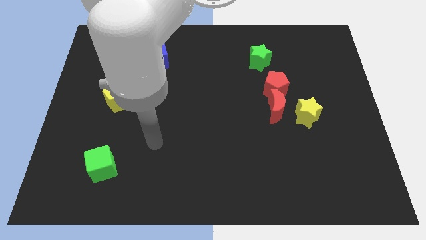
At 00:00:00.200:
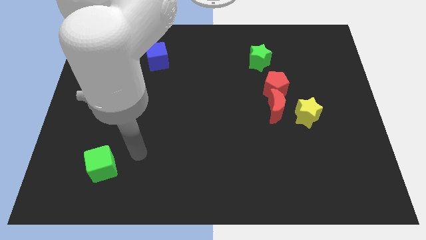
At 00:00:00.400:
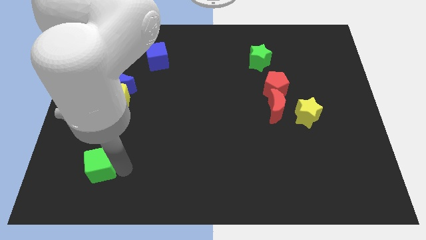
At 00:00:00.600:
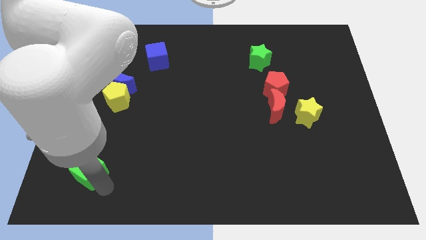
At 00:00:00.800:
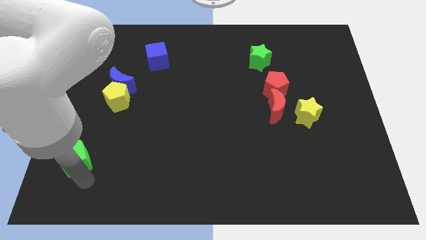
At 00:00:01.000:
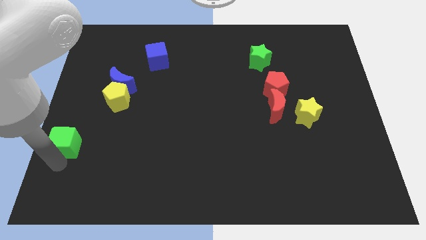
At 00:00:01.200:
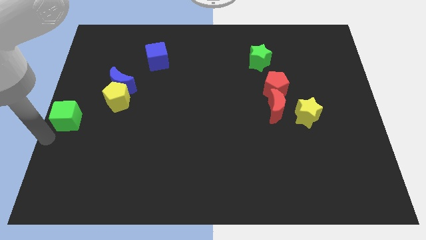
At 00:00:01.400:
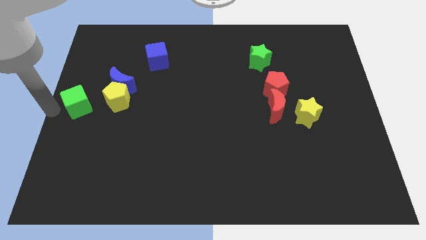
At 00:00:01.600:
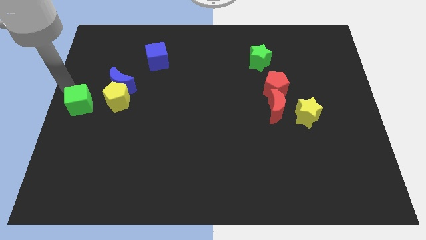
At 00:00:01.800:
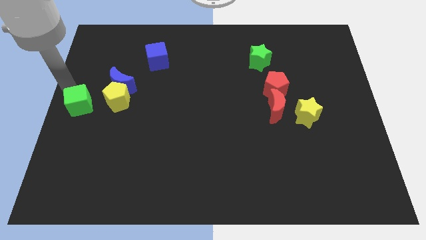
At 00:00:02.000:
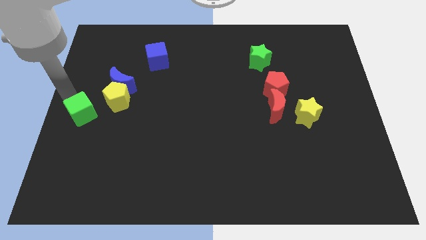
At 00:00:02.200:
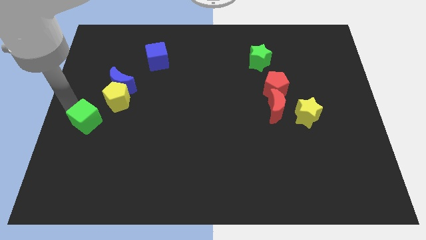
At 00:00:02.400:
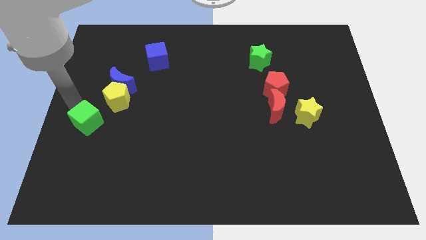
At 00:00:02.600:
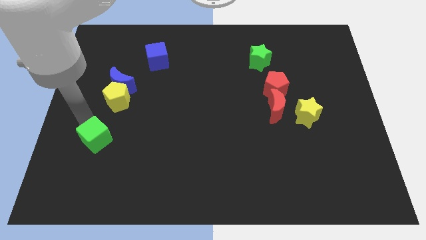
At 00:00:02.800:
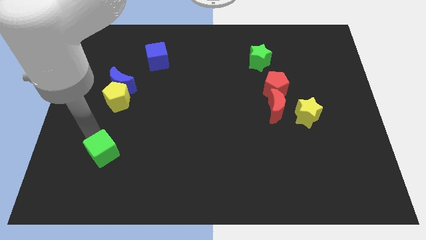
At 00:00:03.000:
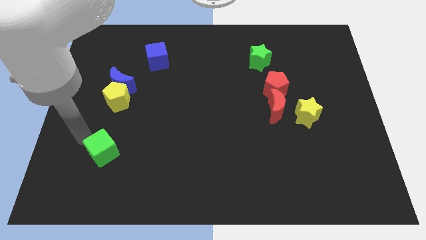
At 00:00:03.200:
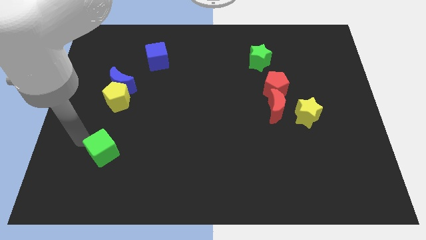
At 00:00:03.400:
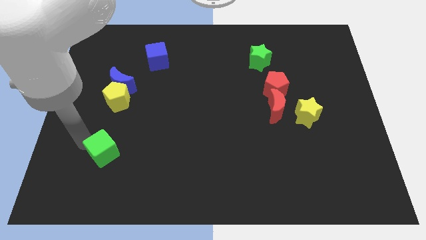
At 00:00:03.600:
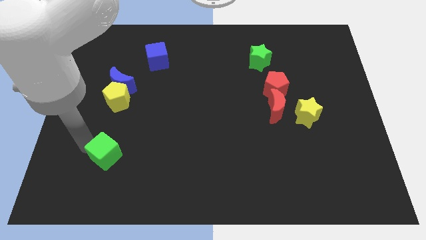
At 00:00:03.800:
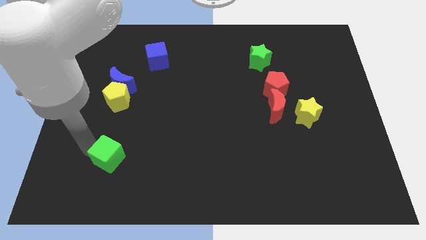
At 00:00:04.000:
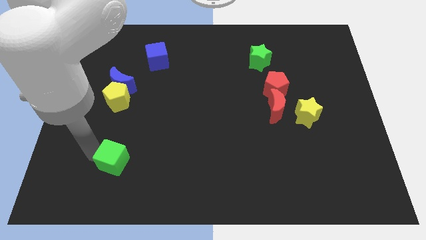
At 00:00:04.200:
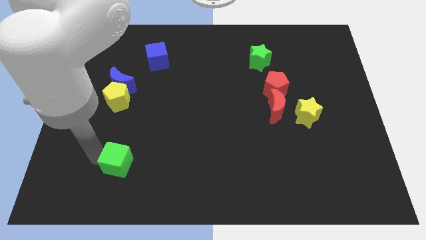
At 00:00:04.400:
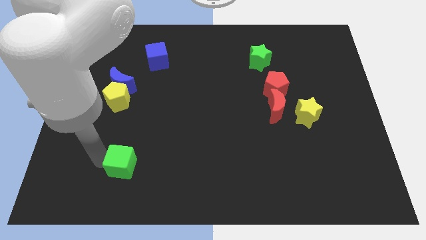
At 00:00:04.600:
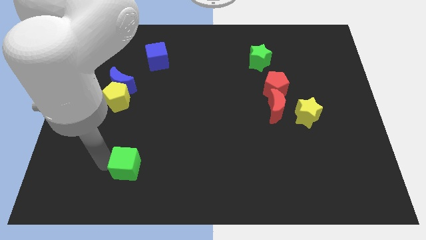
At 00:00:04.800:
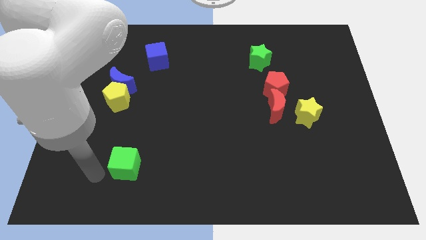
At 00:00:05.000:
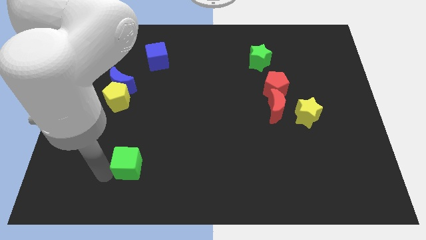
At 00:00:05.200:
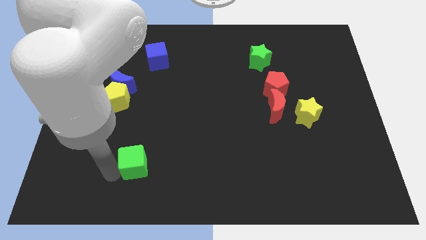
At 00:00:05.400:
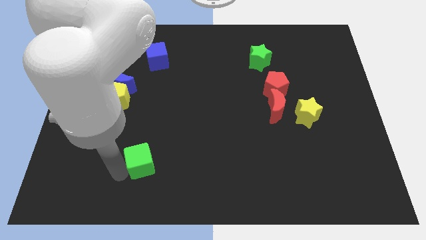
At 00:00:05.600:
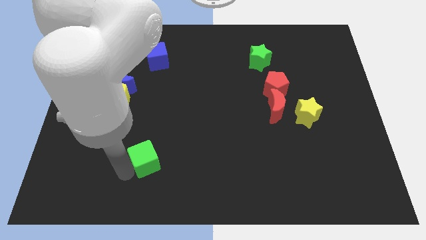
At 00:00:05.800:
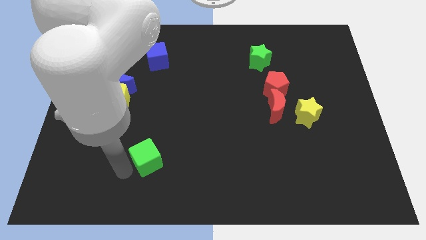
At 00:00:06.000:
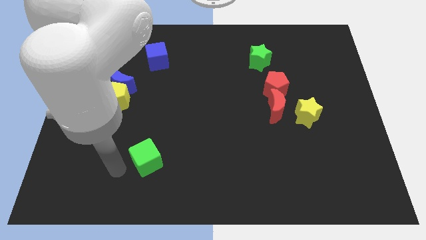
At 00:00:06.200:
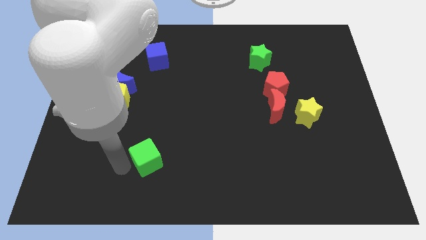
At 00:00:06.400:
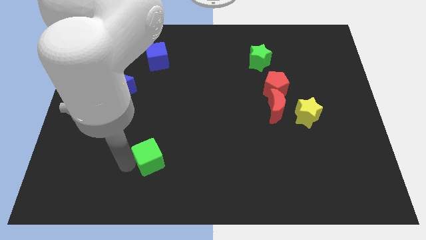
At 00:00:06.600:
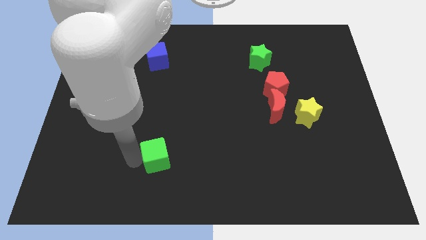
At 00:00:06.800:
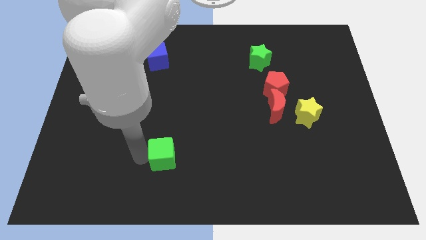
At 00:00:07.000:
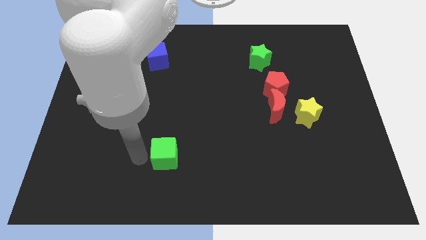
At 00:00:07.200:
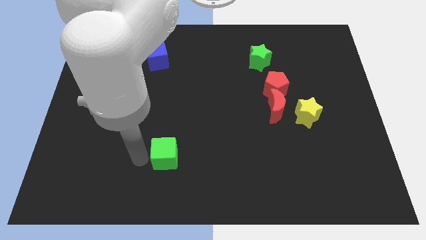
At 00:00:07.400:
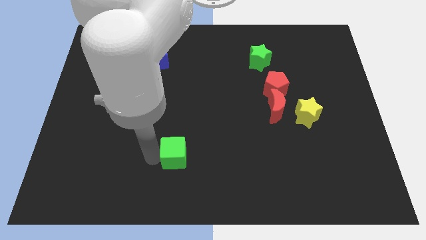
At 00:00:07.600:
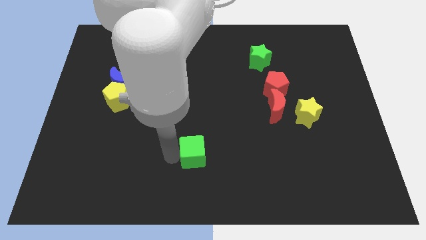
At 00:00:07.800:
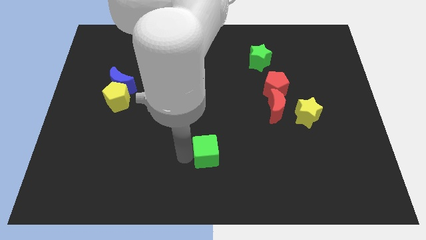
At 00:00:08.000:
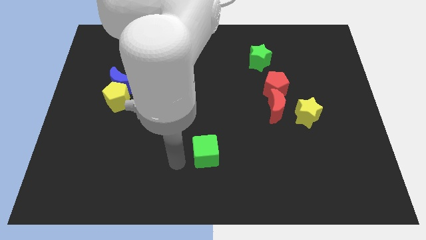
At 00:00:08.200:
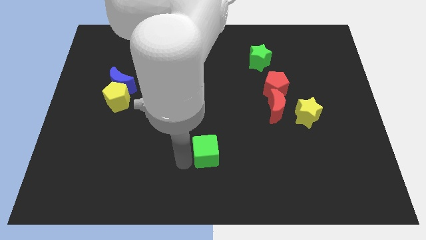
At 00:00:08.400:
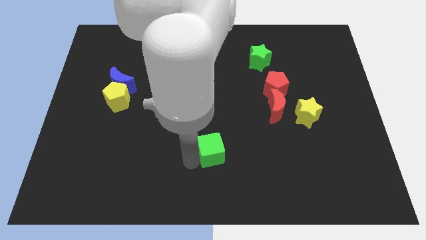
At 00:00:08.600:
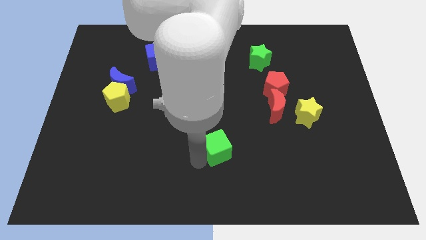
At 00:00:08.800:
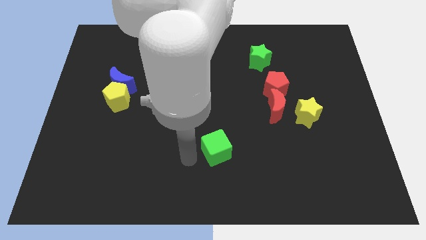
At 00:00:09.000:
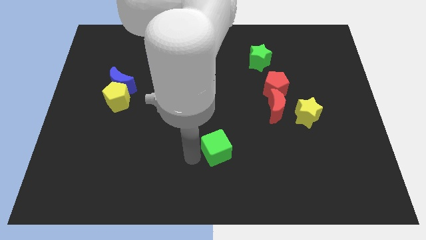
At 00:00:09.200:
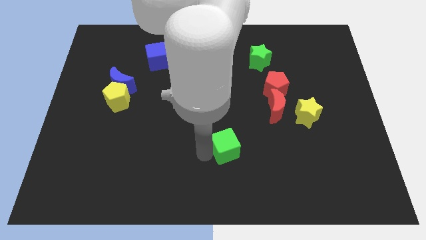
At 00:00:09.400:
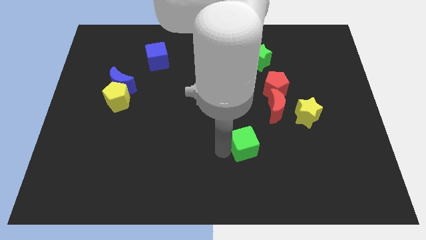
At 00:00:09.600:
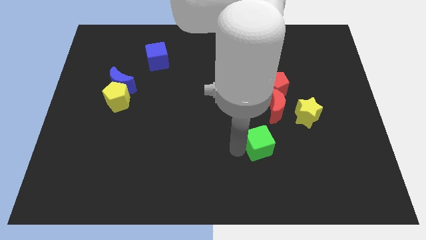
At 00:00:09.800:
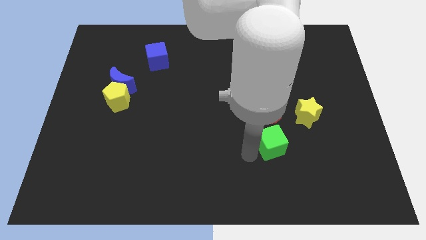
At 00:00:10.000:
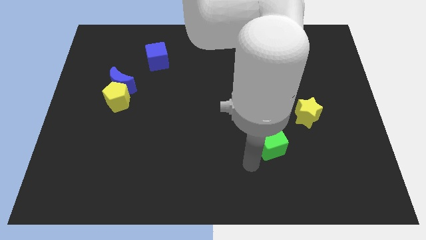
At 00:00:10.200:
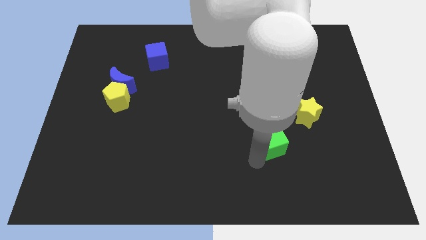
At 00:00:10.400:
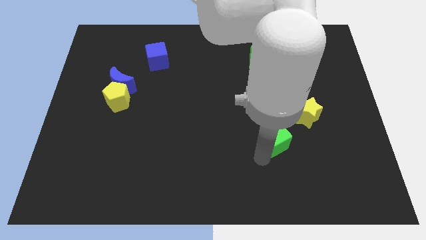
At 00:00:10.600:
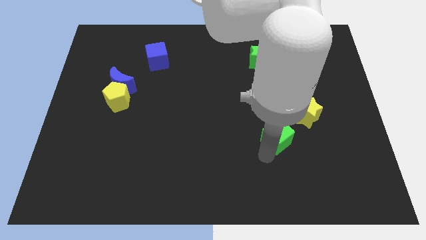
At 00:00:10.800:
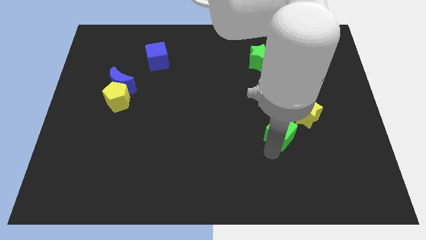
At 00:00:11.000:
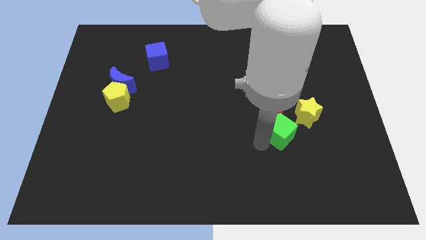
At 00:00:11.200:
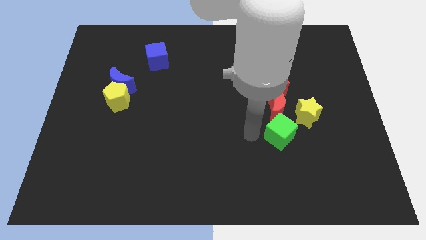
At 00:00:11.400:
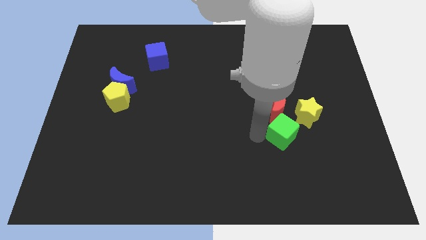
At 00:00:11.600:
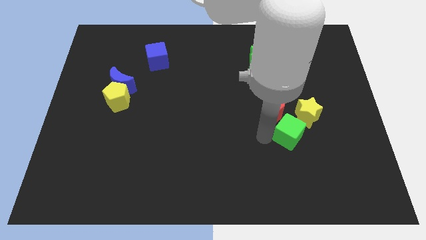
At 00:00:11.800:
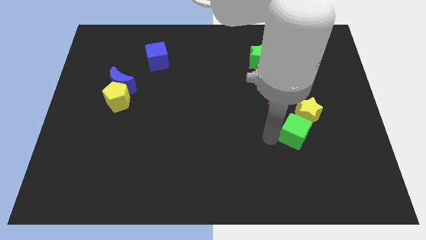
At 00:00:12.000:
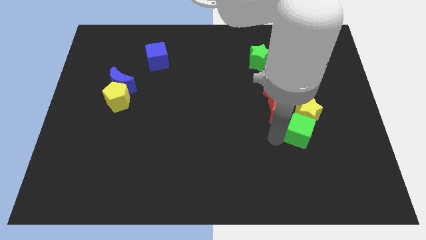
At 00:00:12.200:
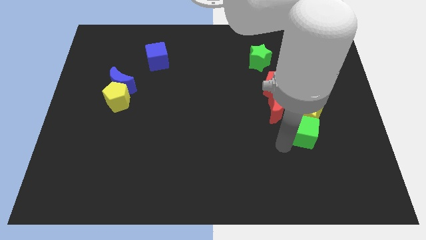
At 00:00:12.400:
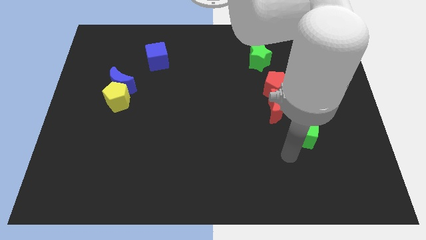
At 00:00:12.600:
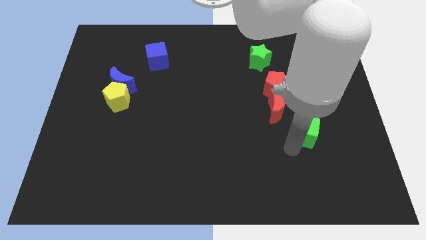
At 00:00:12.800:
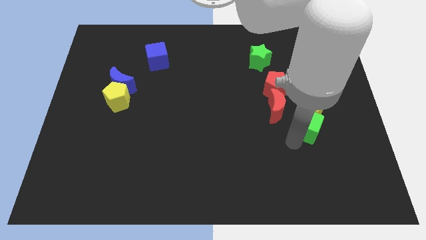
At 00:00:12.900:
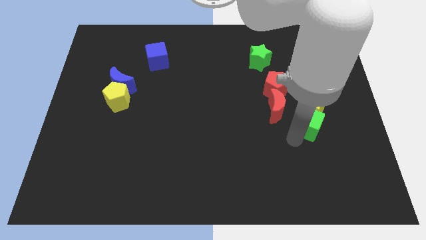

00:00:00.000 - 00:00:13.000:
push the green cube to the right side of the red moon

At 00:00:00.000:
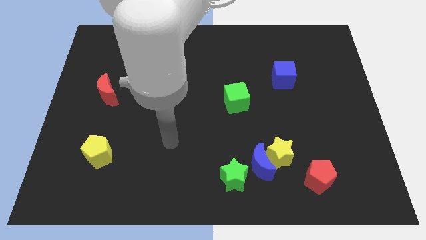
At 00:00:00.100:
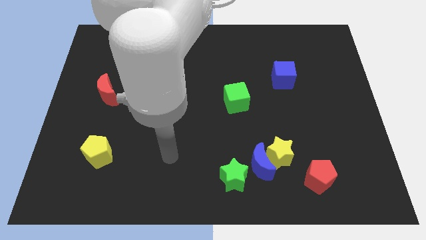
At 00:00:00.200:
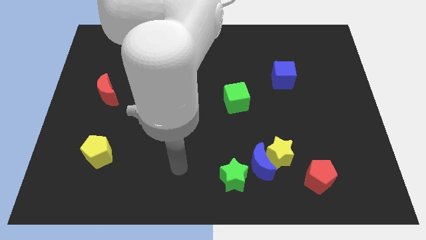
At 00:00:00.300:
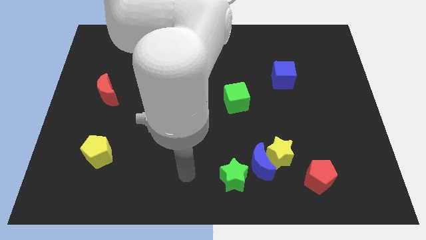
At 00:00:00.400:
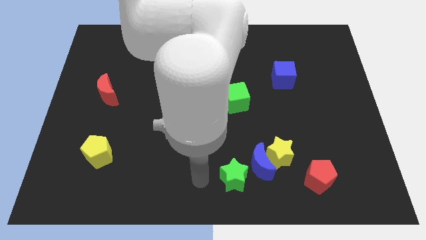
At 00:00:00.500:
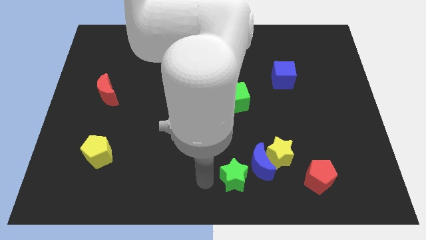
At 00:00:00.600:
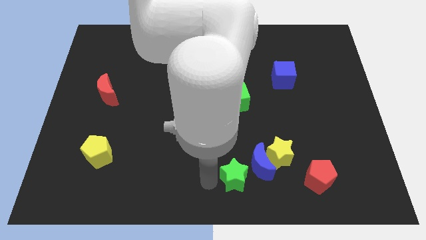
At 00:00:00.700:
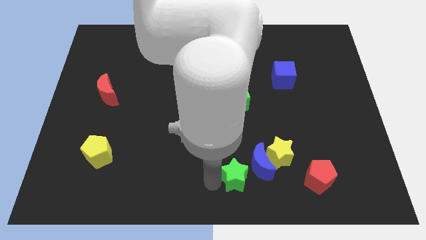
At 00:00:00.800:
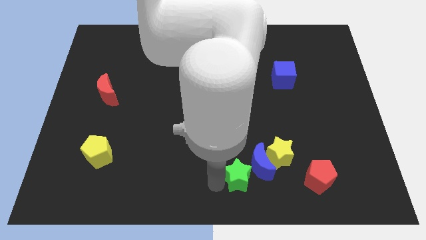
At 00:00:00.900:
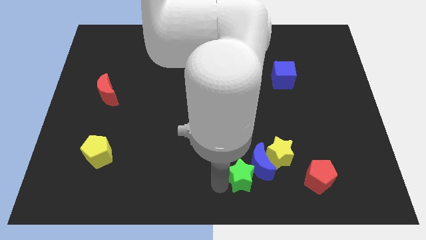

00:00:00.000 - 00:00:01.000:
move the green star just left of the red pentagon
